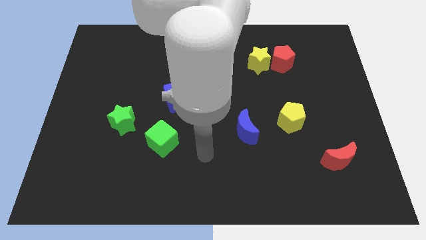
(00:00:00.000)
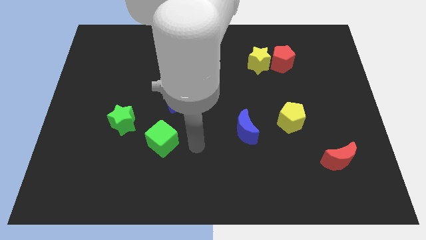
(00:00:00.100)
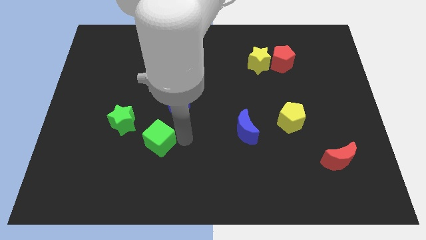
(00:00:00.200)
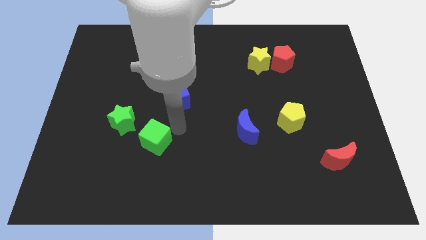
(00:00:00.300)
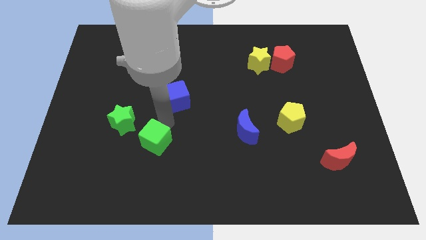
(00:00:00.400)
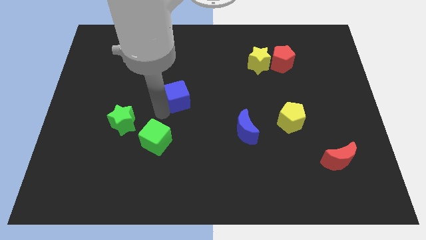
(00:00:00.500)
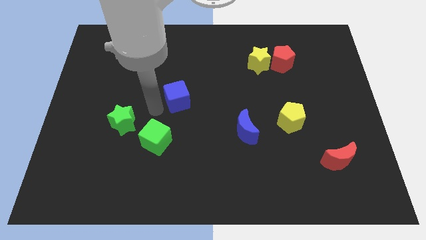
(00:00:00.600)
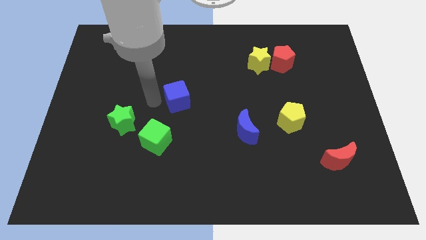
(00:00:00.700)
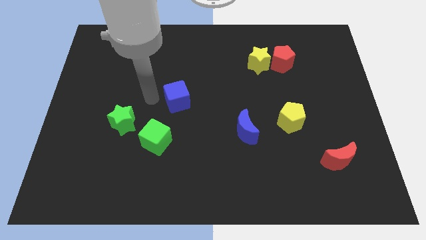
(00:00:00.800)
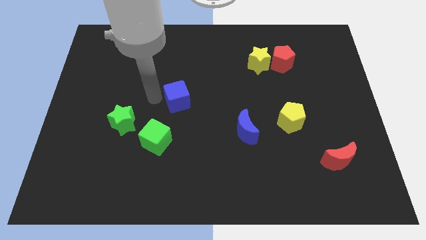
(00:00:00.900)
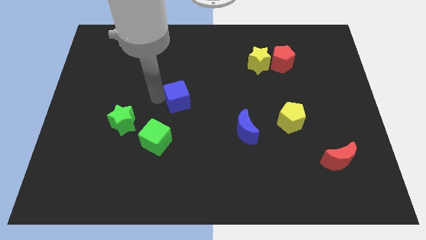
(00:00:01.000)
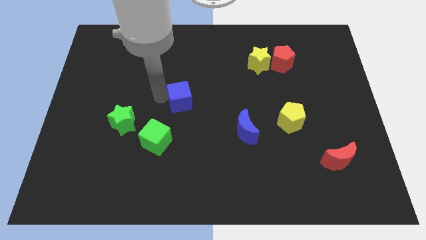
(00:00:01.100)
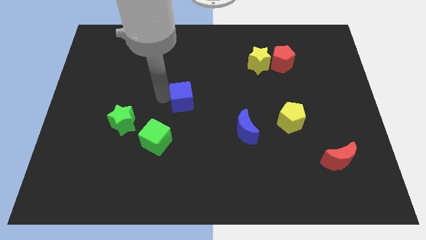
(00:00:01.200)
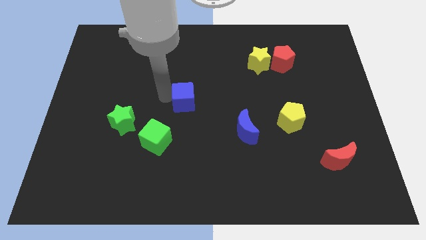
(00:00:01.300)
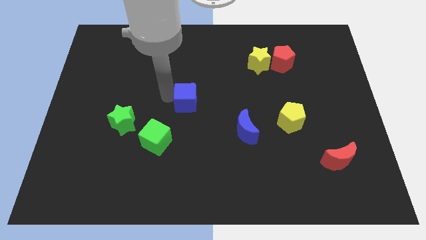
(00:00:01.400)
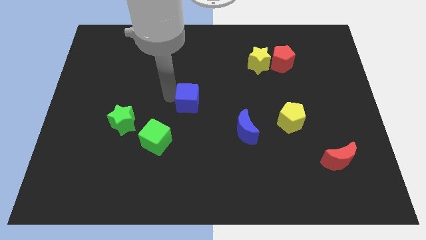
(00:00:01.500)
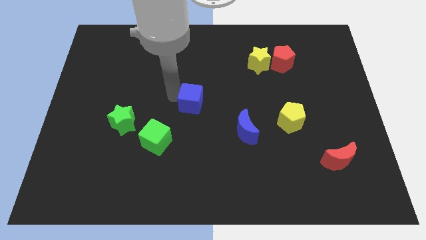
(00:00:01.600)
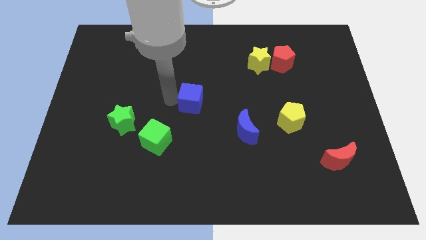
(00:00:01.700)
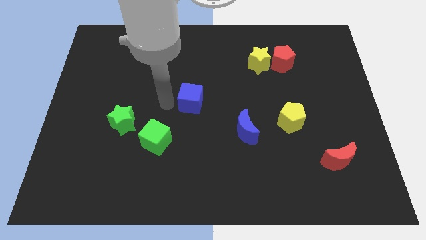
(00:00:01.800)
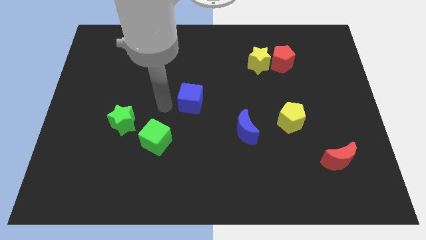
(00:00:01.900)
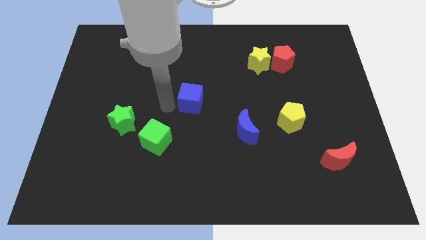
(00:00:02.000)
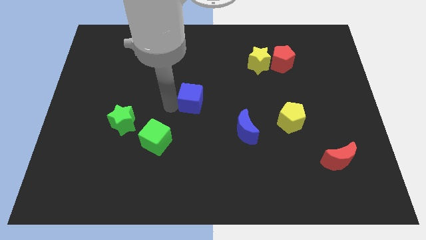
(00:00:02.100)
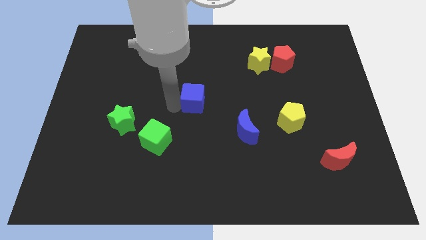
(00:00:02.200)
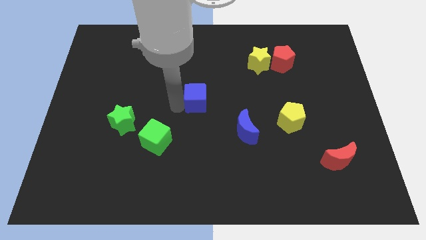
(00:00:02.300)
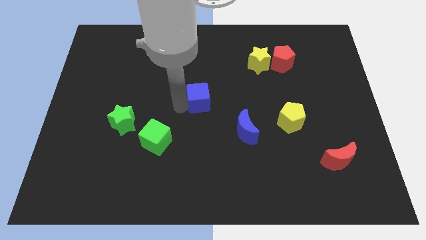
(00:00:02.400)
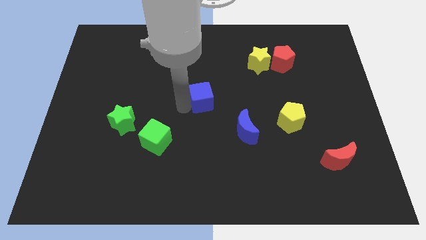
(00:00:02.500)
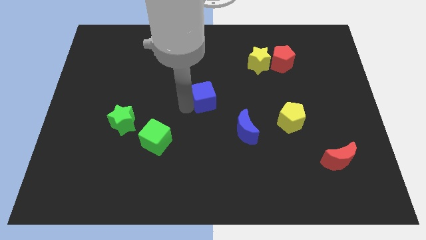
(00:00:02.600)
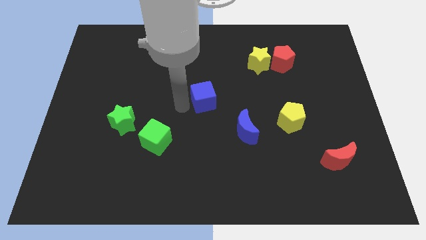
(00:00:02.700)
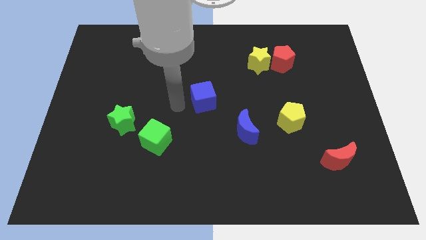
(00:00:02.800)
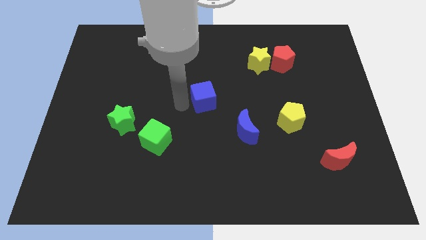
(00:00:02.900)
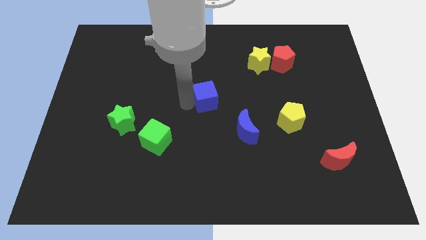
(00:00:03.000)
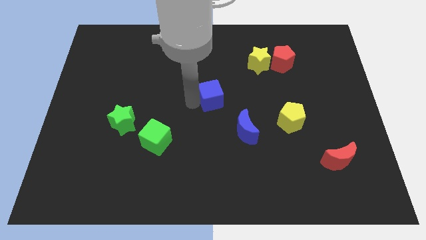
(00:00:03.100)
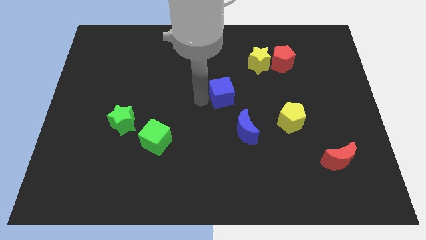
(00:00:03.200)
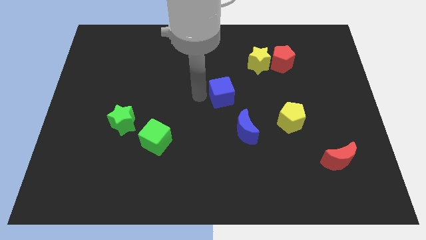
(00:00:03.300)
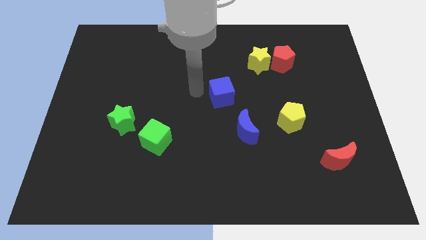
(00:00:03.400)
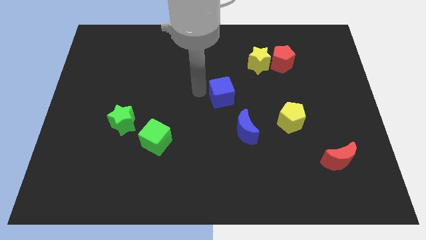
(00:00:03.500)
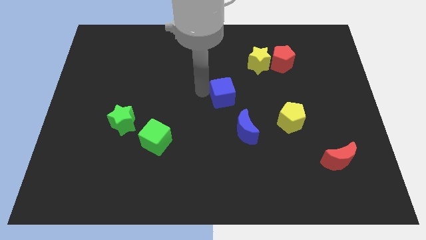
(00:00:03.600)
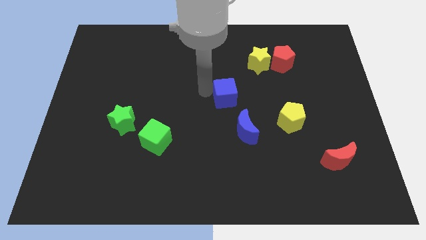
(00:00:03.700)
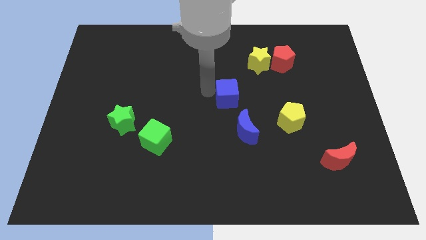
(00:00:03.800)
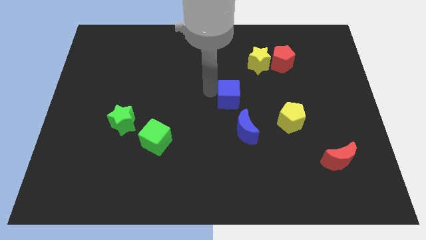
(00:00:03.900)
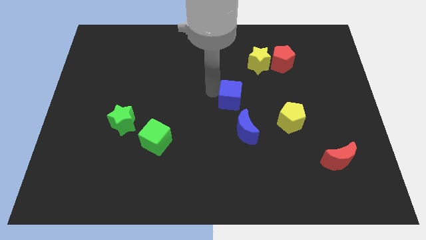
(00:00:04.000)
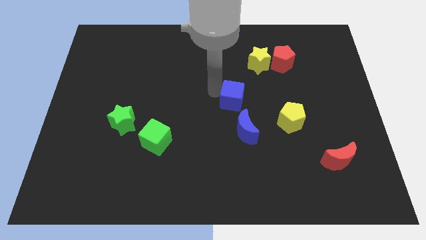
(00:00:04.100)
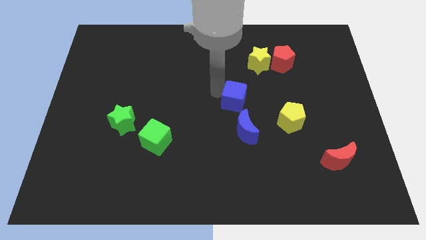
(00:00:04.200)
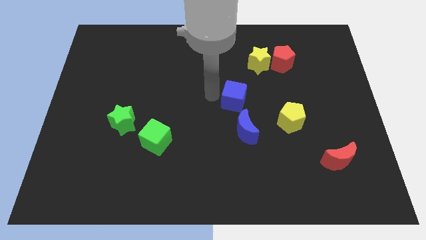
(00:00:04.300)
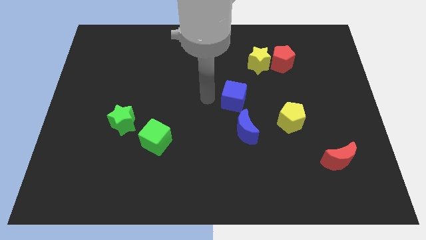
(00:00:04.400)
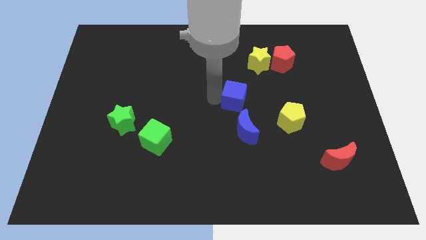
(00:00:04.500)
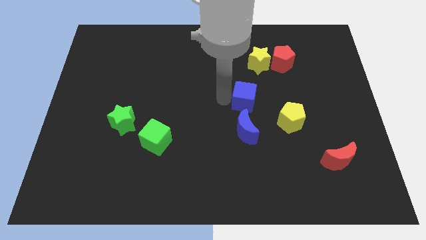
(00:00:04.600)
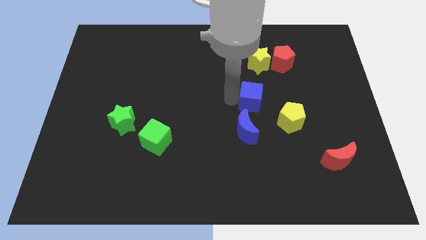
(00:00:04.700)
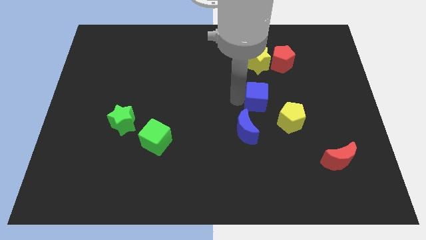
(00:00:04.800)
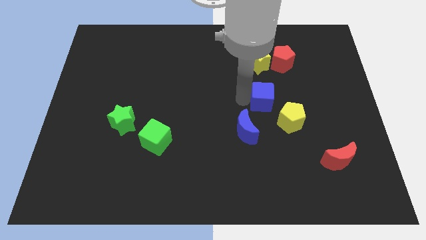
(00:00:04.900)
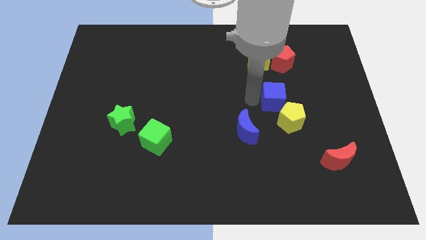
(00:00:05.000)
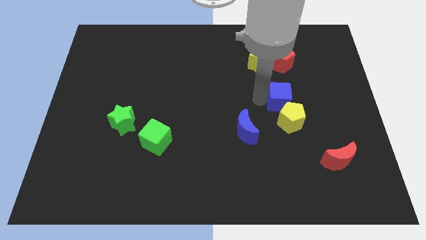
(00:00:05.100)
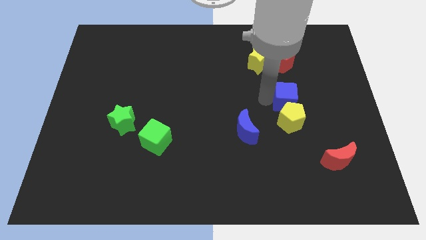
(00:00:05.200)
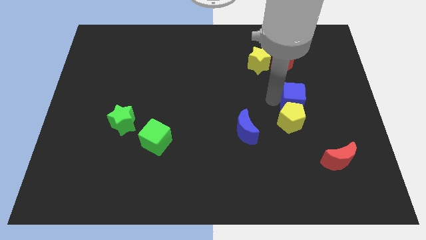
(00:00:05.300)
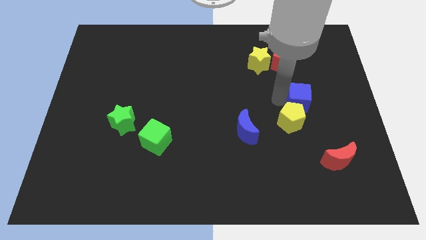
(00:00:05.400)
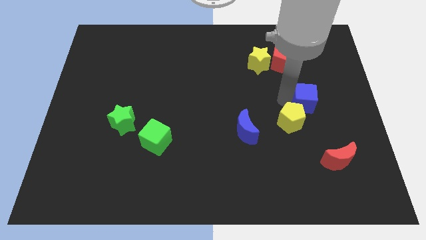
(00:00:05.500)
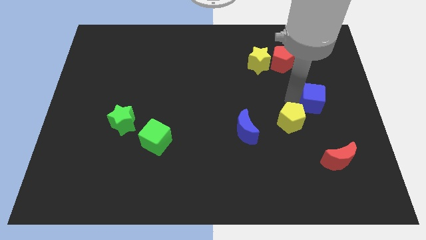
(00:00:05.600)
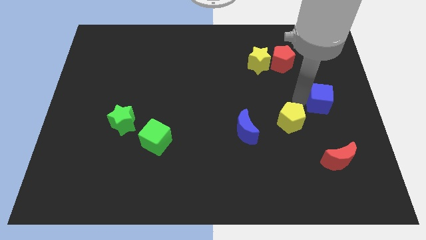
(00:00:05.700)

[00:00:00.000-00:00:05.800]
push the blue cube to the right side

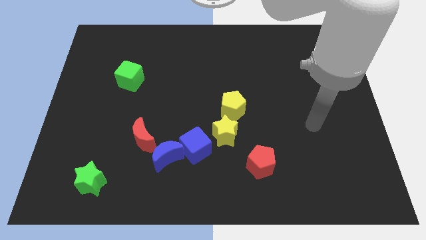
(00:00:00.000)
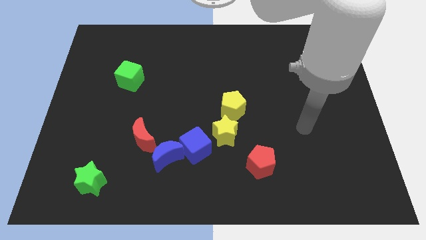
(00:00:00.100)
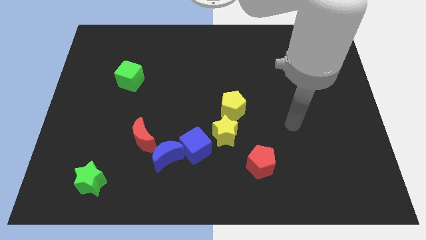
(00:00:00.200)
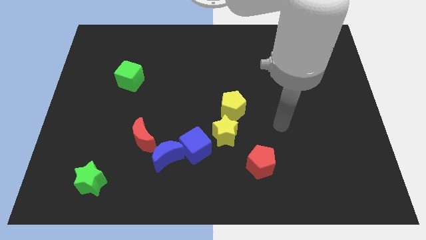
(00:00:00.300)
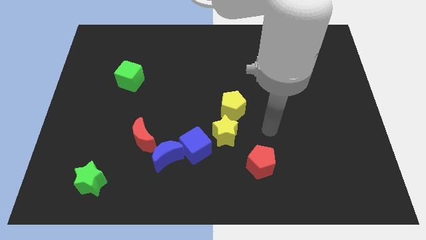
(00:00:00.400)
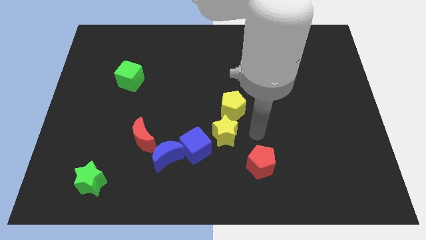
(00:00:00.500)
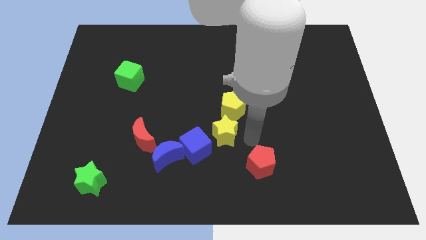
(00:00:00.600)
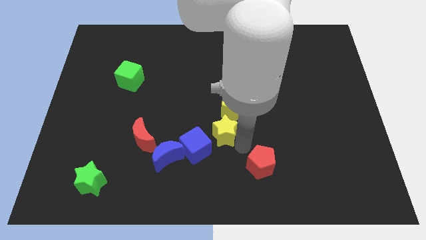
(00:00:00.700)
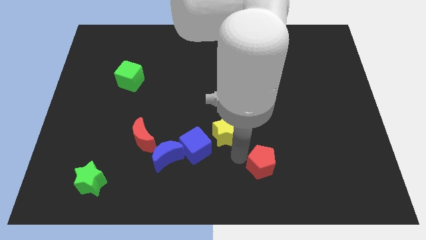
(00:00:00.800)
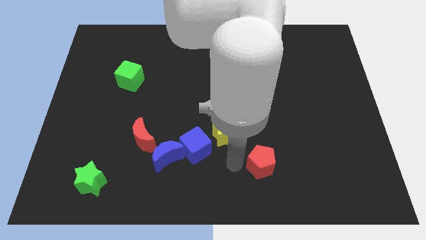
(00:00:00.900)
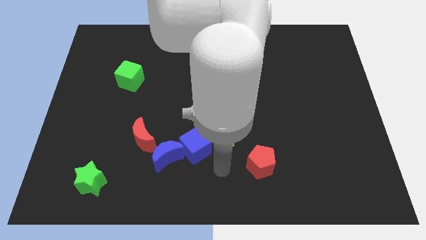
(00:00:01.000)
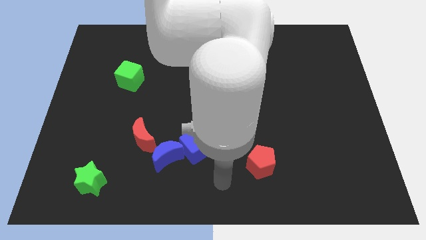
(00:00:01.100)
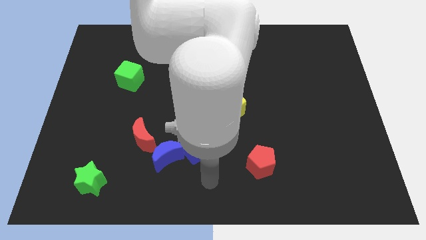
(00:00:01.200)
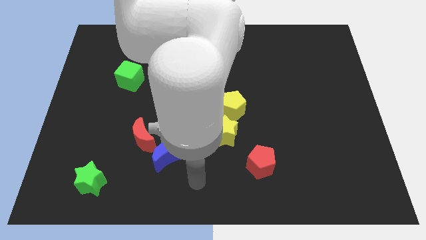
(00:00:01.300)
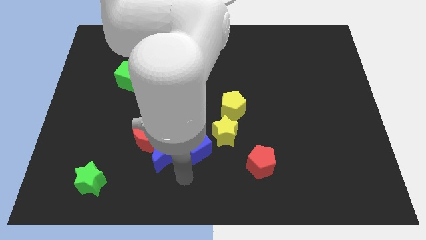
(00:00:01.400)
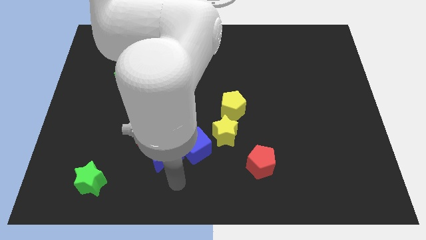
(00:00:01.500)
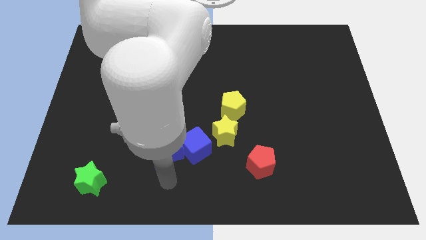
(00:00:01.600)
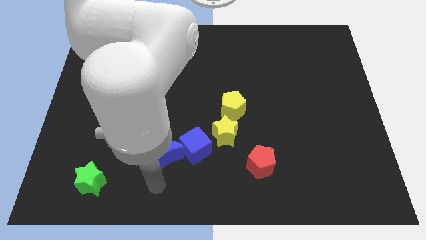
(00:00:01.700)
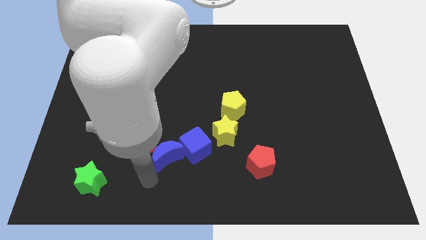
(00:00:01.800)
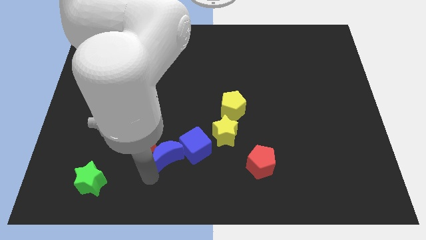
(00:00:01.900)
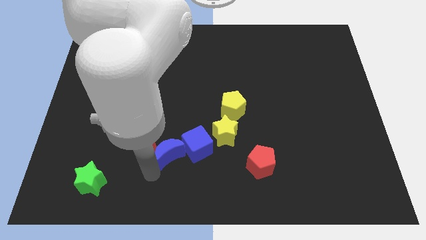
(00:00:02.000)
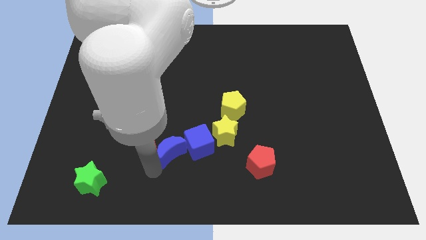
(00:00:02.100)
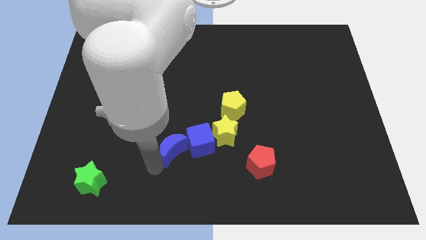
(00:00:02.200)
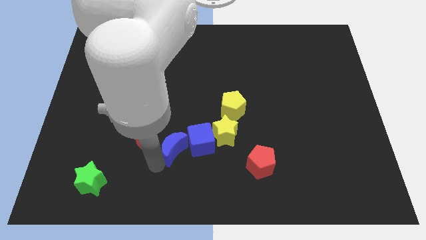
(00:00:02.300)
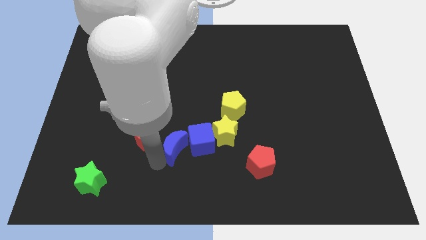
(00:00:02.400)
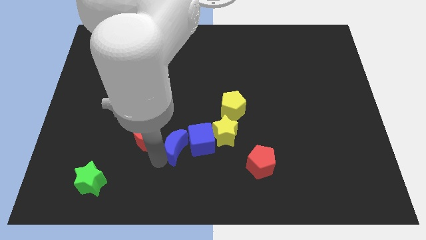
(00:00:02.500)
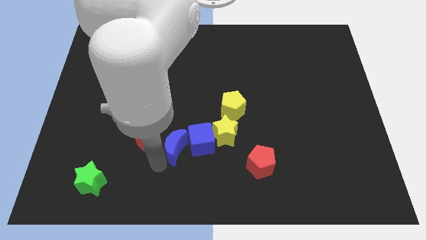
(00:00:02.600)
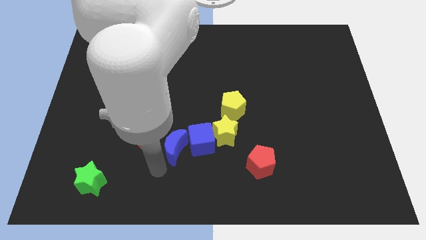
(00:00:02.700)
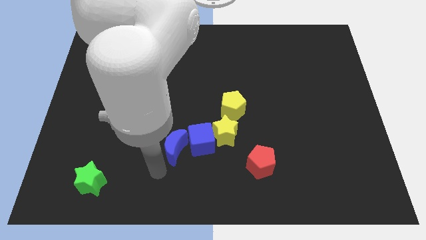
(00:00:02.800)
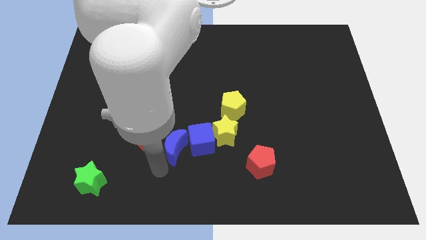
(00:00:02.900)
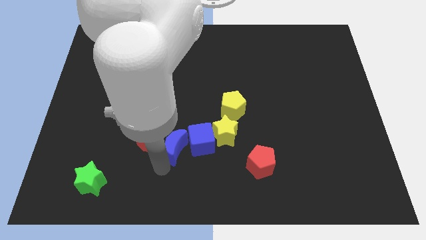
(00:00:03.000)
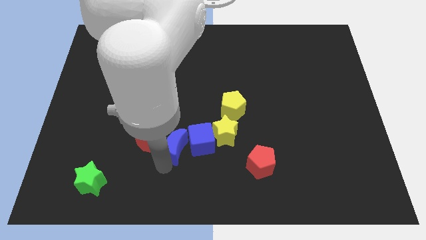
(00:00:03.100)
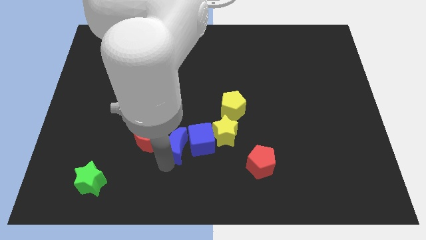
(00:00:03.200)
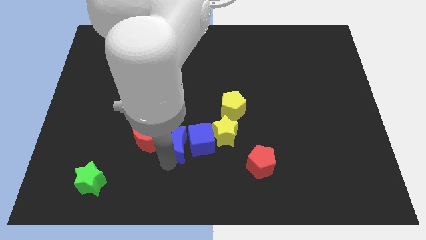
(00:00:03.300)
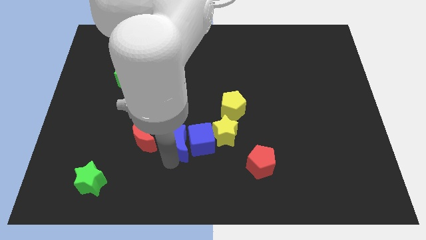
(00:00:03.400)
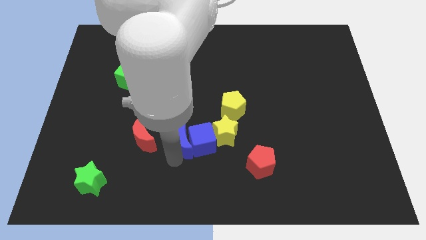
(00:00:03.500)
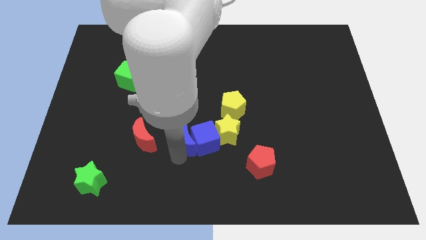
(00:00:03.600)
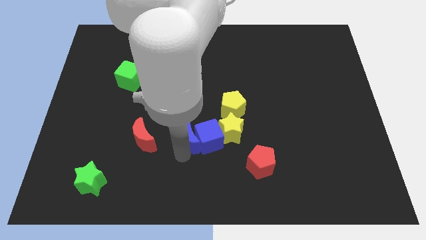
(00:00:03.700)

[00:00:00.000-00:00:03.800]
move the blue moon to the center
